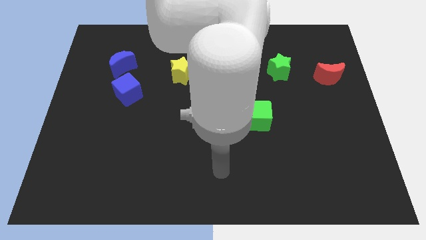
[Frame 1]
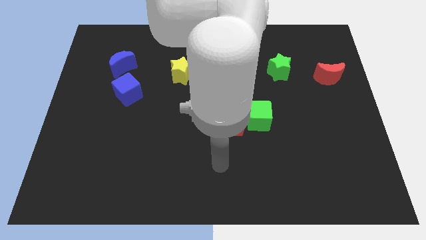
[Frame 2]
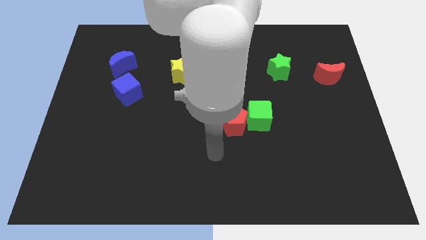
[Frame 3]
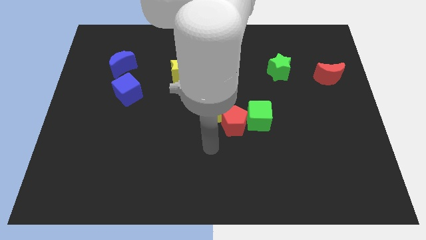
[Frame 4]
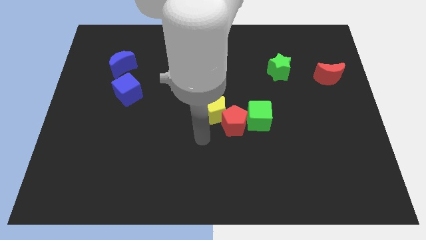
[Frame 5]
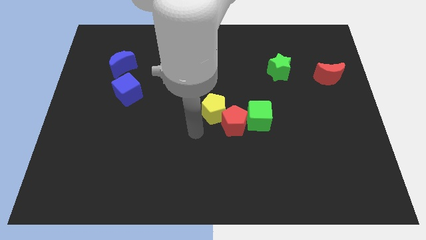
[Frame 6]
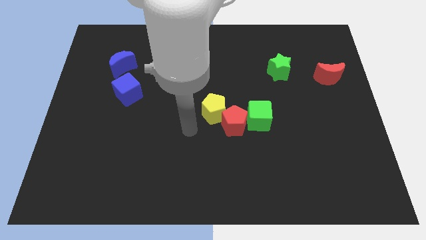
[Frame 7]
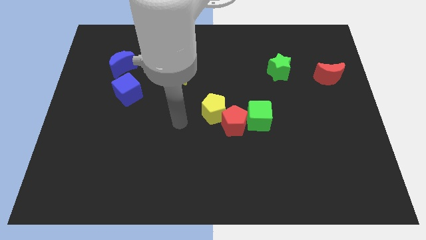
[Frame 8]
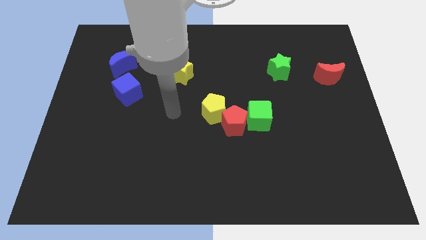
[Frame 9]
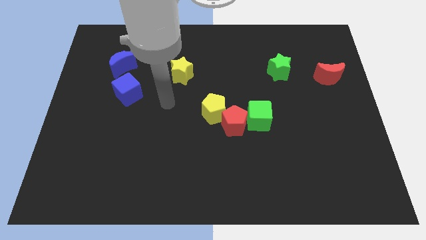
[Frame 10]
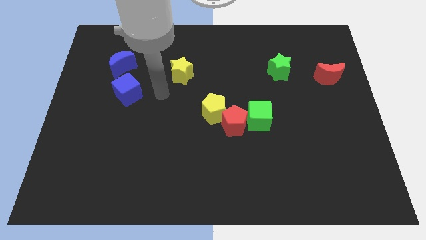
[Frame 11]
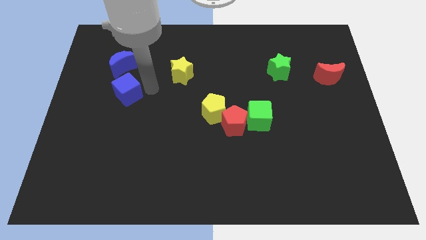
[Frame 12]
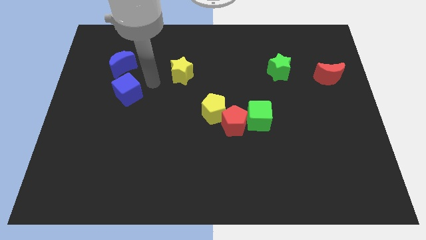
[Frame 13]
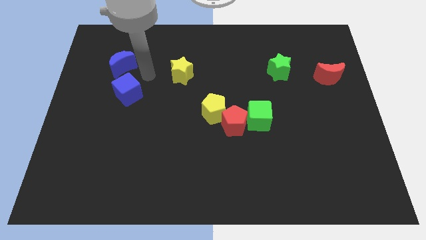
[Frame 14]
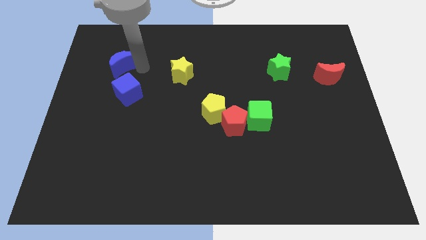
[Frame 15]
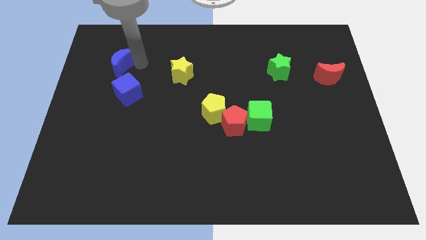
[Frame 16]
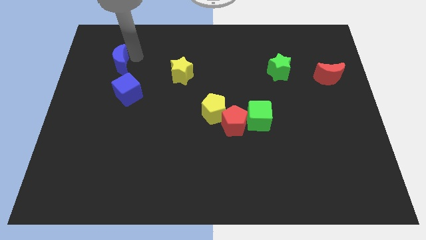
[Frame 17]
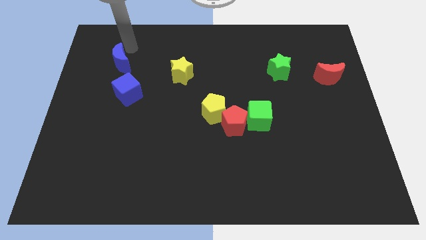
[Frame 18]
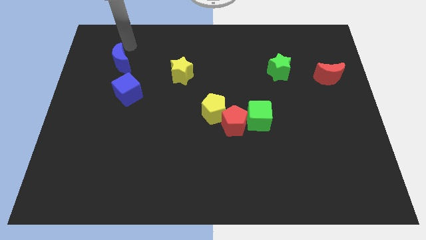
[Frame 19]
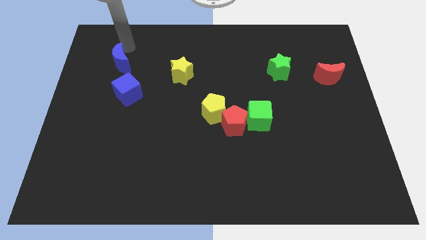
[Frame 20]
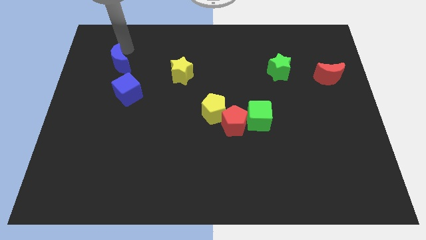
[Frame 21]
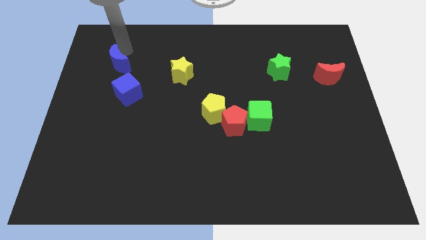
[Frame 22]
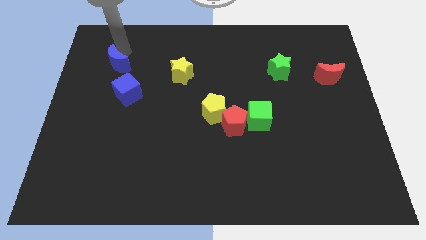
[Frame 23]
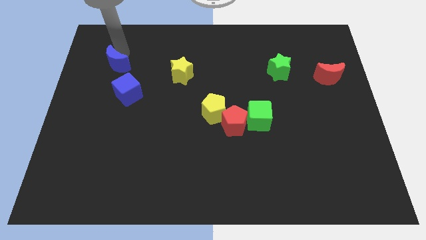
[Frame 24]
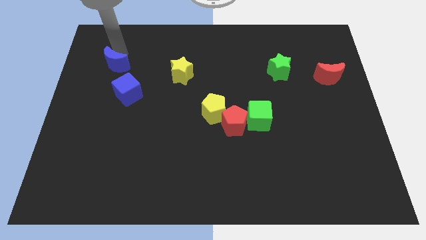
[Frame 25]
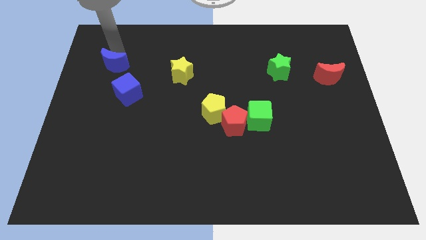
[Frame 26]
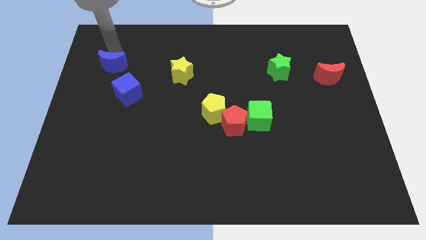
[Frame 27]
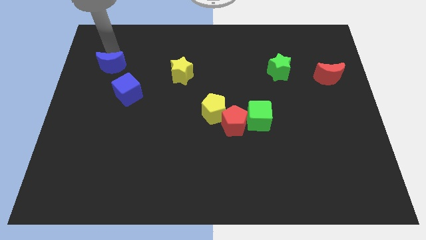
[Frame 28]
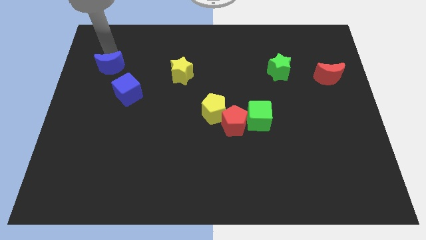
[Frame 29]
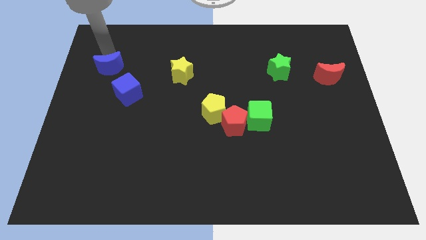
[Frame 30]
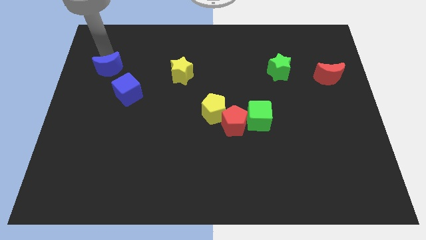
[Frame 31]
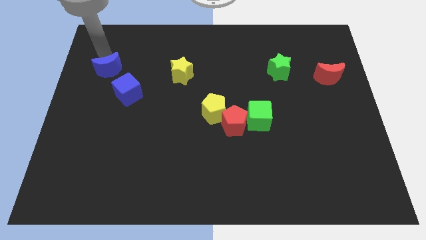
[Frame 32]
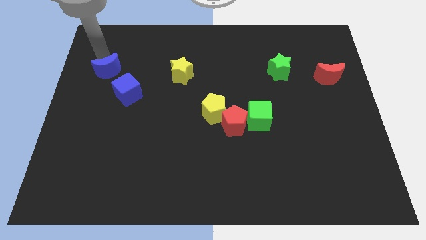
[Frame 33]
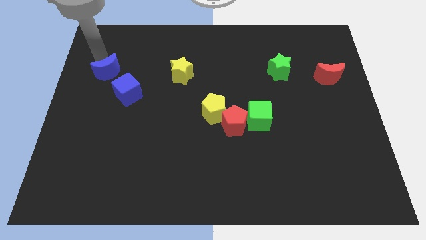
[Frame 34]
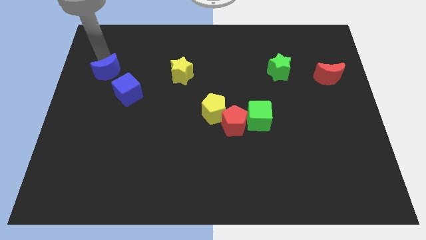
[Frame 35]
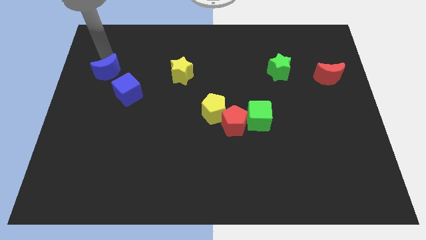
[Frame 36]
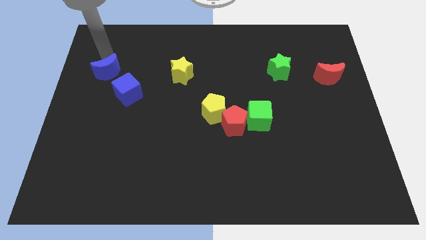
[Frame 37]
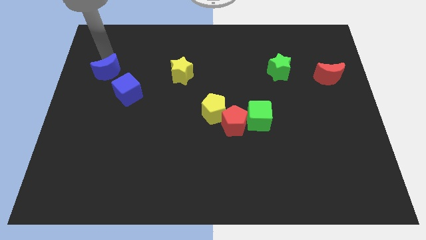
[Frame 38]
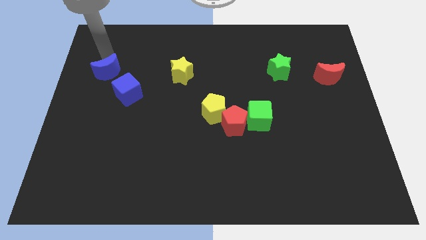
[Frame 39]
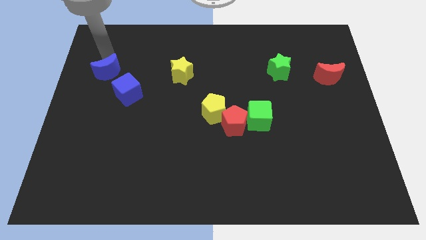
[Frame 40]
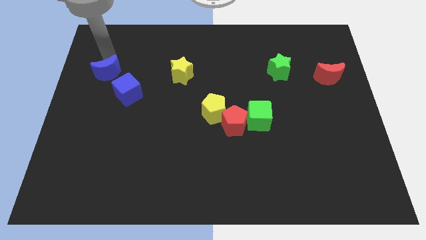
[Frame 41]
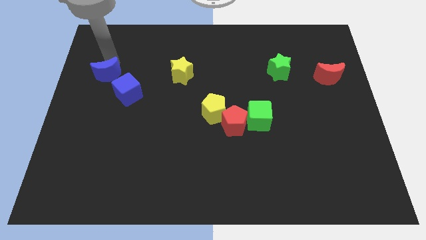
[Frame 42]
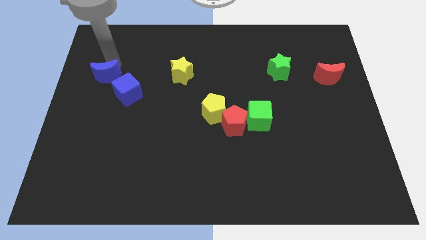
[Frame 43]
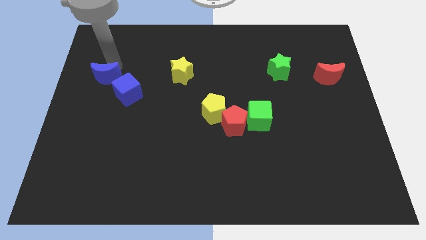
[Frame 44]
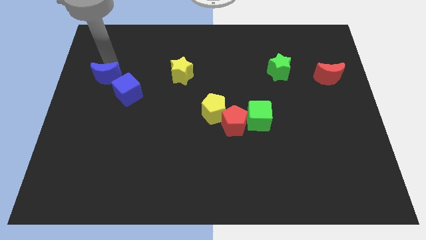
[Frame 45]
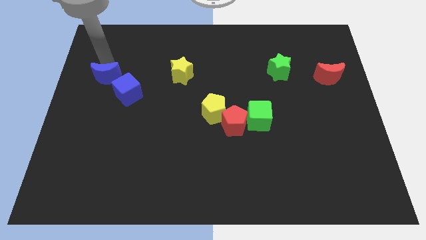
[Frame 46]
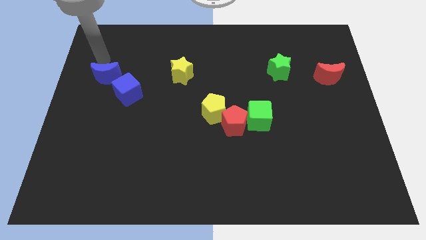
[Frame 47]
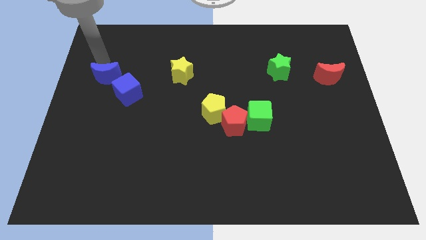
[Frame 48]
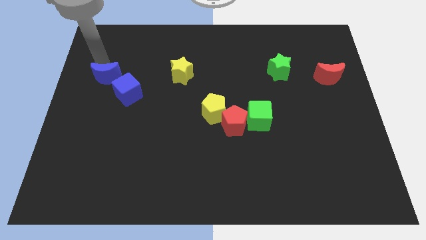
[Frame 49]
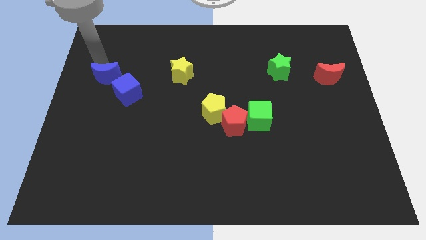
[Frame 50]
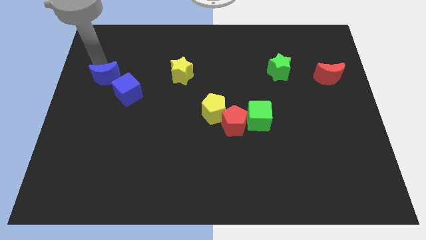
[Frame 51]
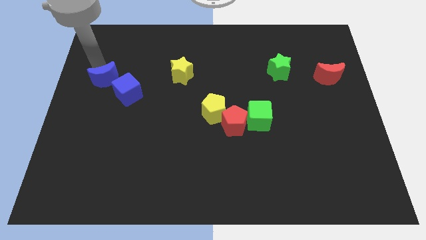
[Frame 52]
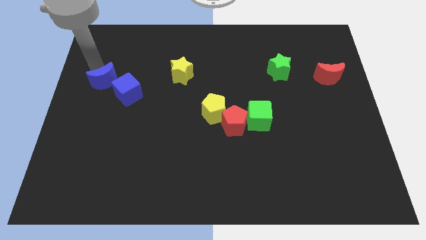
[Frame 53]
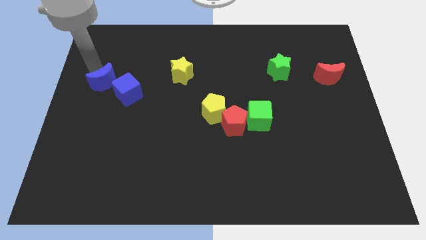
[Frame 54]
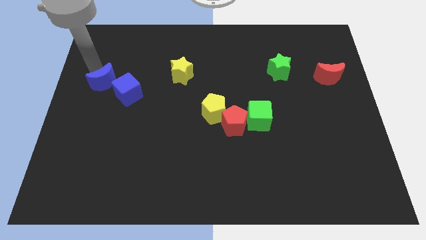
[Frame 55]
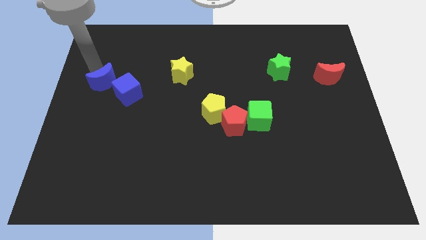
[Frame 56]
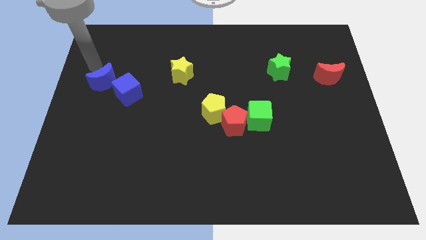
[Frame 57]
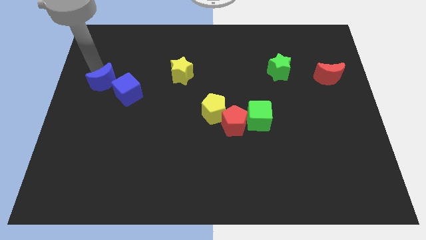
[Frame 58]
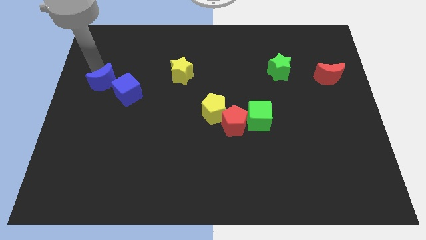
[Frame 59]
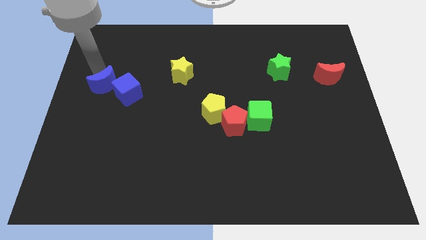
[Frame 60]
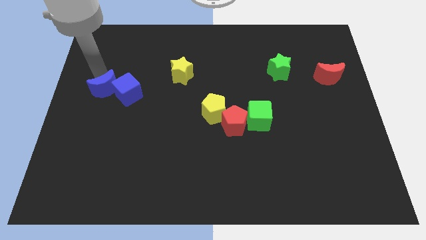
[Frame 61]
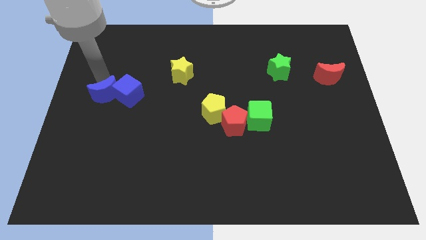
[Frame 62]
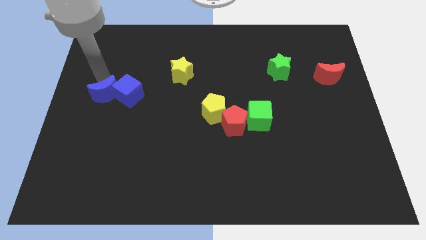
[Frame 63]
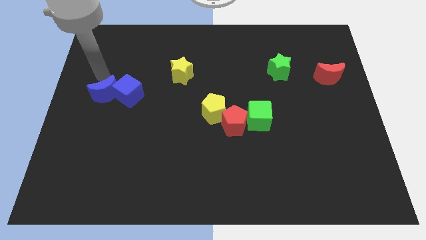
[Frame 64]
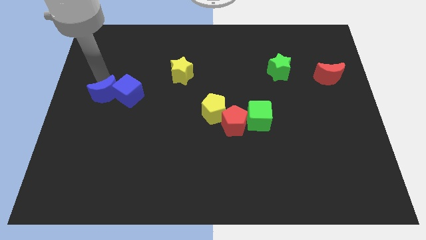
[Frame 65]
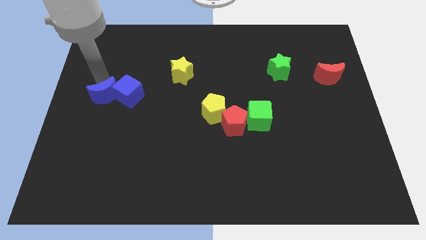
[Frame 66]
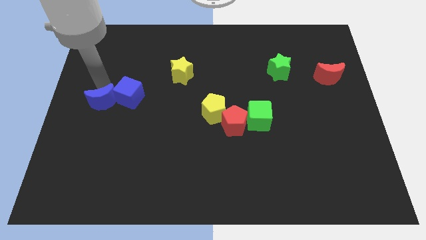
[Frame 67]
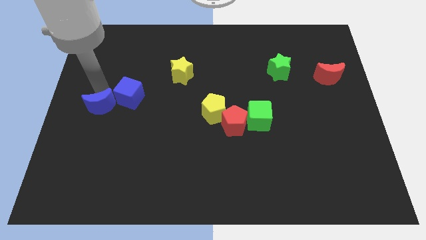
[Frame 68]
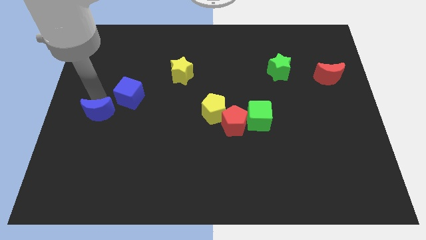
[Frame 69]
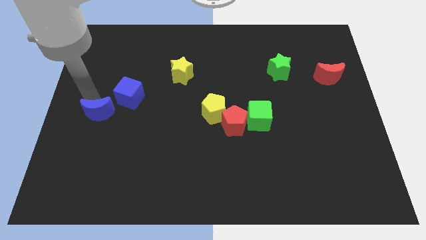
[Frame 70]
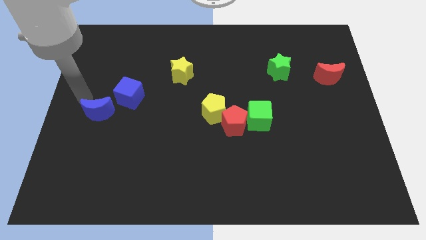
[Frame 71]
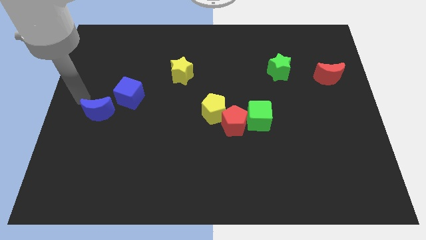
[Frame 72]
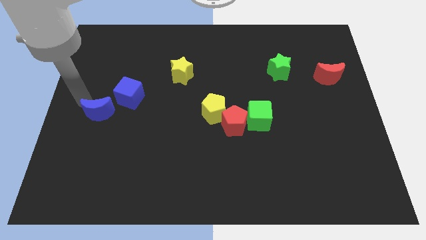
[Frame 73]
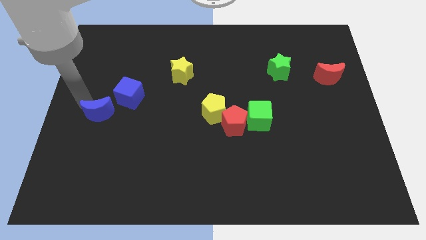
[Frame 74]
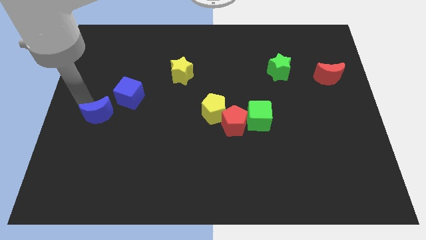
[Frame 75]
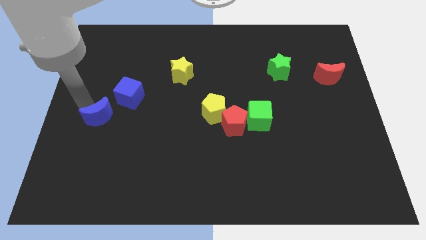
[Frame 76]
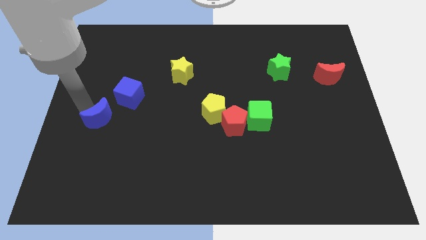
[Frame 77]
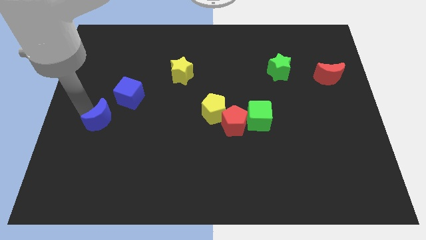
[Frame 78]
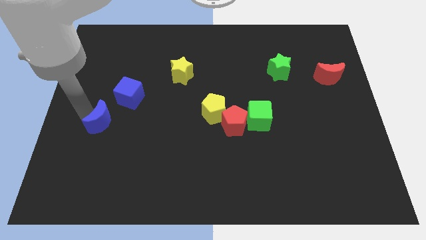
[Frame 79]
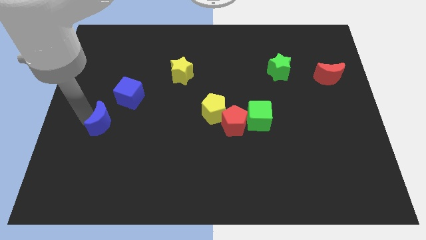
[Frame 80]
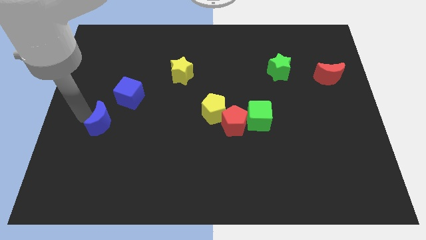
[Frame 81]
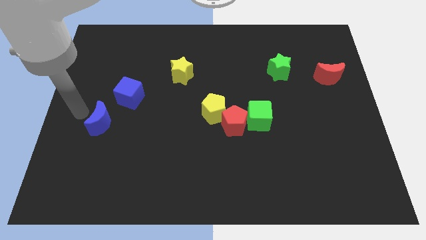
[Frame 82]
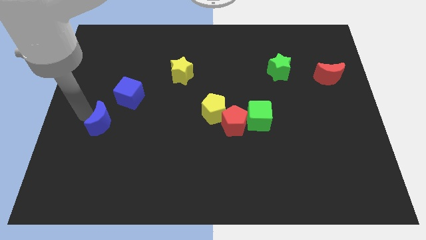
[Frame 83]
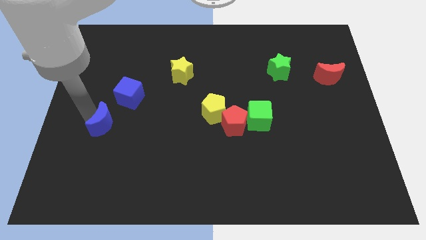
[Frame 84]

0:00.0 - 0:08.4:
push the blue moon below the blue cube
